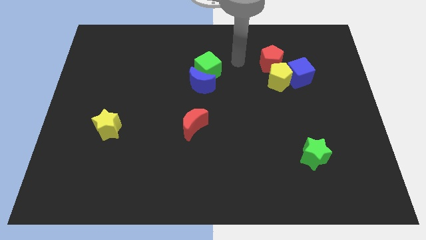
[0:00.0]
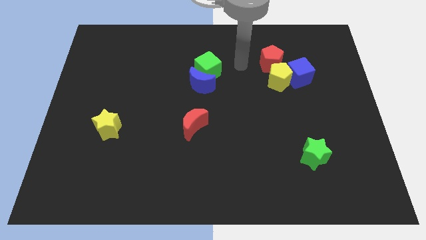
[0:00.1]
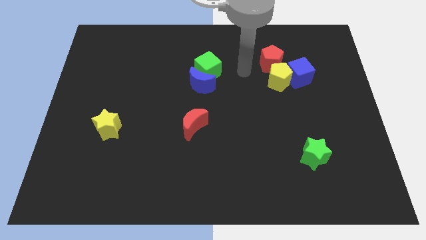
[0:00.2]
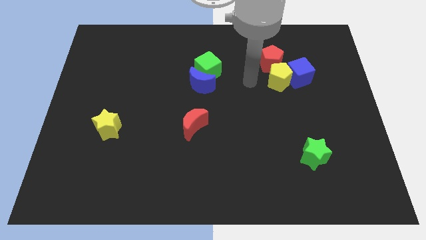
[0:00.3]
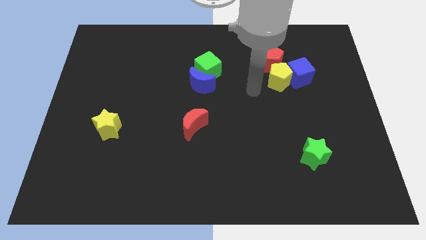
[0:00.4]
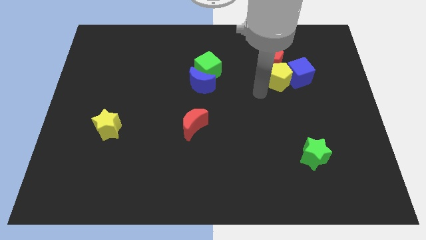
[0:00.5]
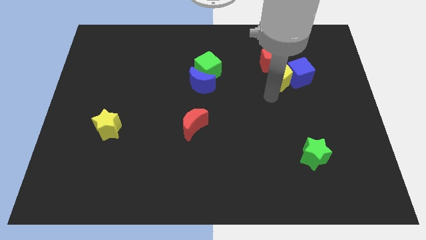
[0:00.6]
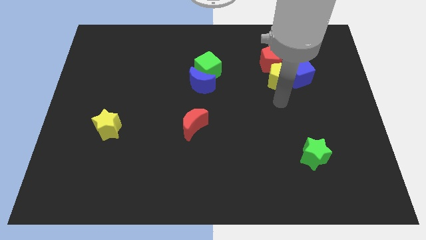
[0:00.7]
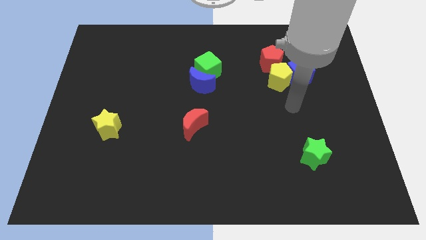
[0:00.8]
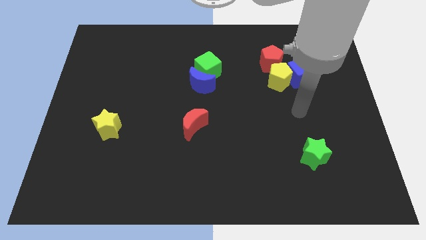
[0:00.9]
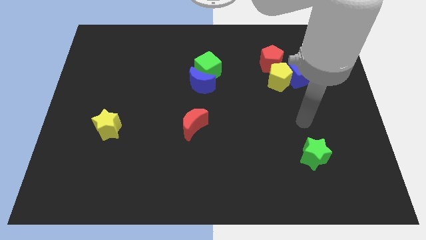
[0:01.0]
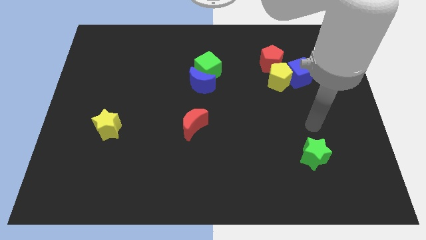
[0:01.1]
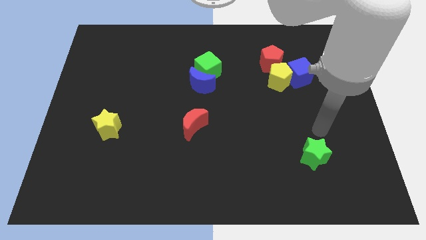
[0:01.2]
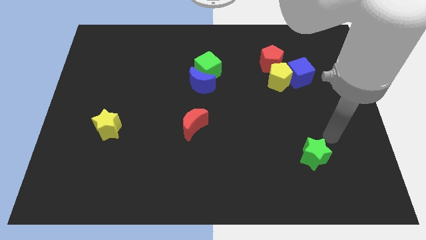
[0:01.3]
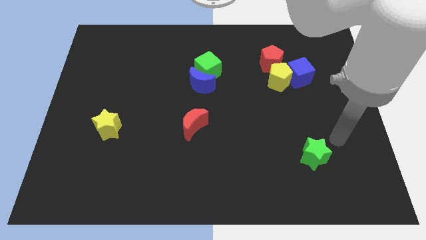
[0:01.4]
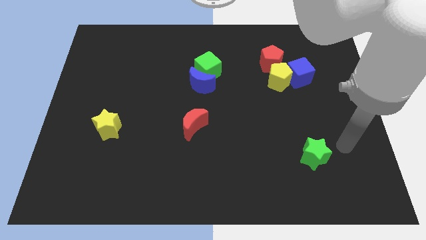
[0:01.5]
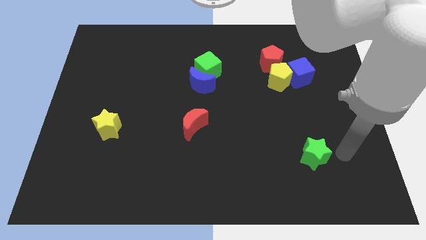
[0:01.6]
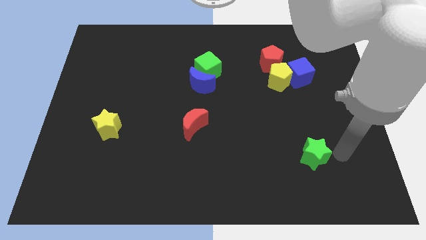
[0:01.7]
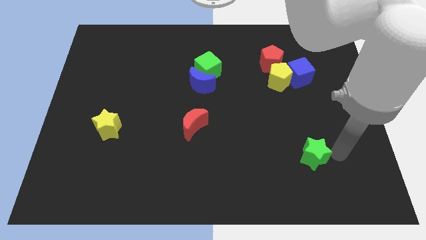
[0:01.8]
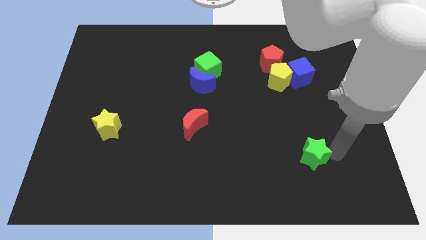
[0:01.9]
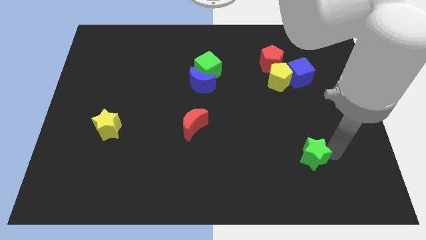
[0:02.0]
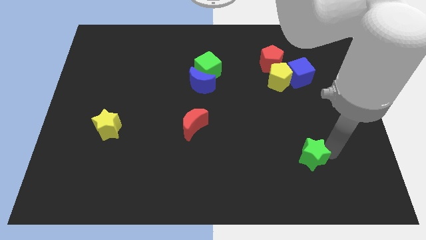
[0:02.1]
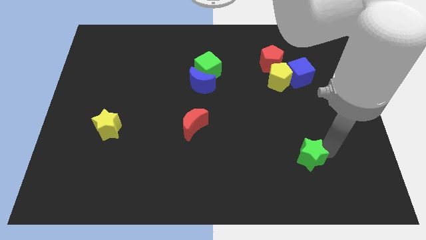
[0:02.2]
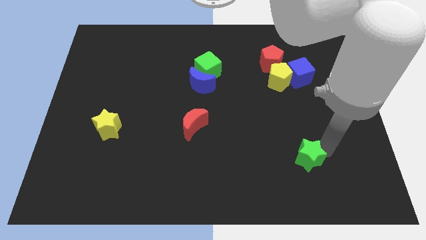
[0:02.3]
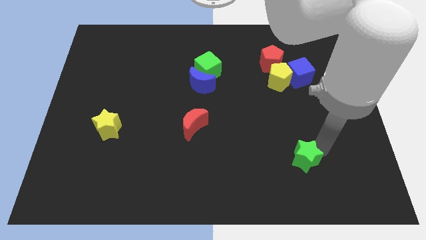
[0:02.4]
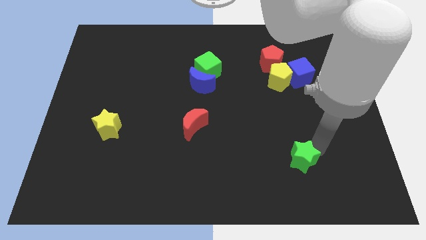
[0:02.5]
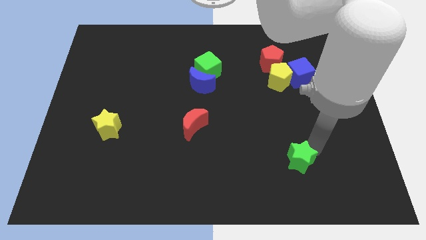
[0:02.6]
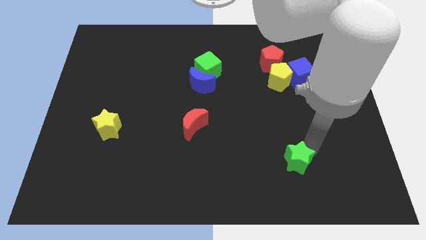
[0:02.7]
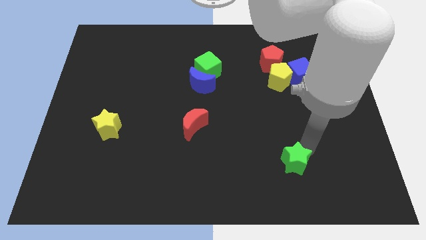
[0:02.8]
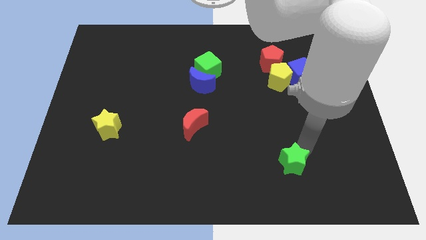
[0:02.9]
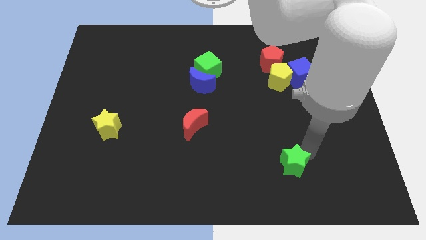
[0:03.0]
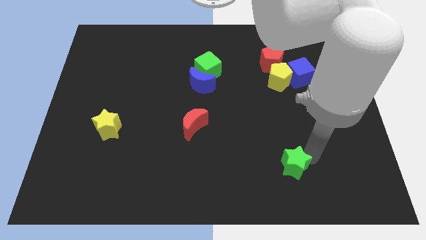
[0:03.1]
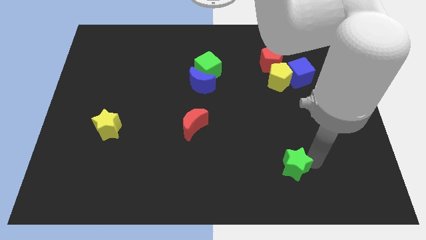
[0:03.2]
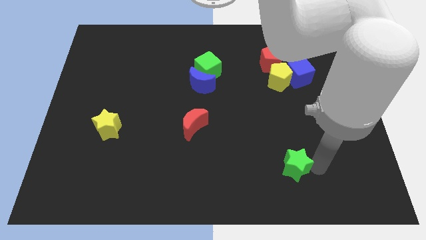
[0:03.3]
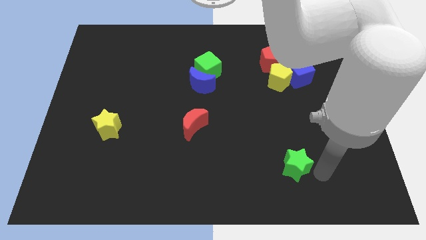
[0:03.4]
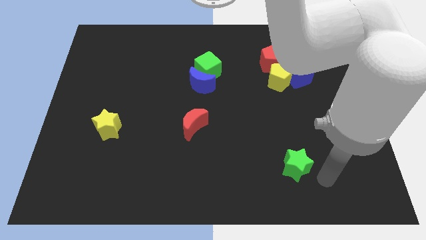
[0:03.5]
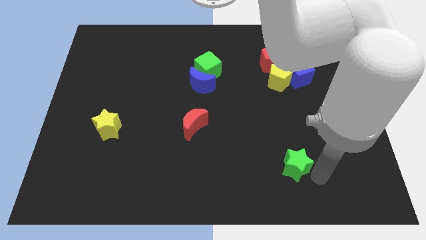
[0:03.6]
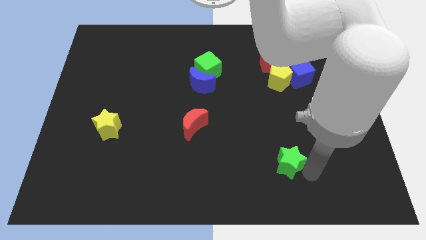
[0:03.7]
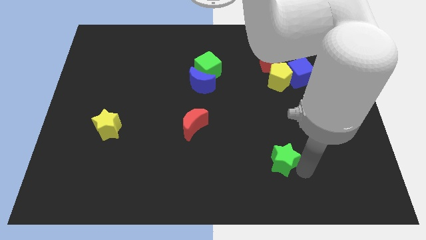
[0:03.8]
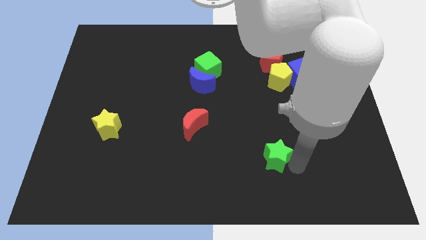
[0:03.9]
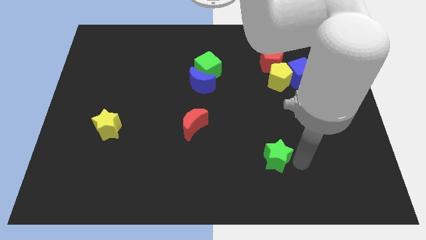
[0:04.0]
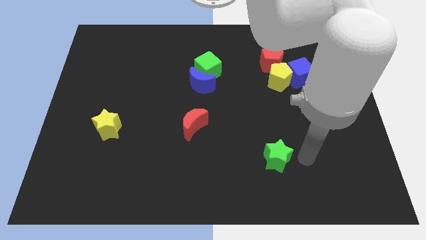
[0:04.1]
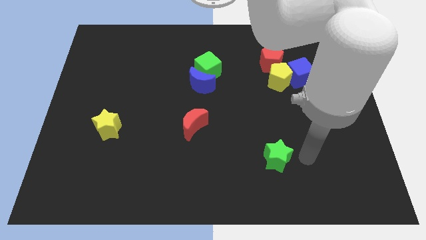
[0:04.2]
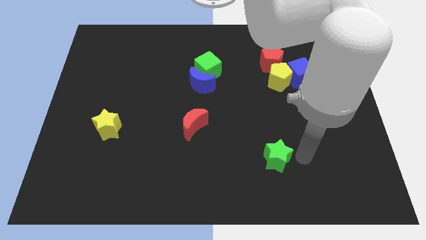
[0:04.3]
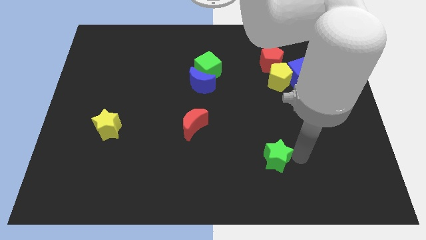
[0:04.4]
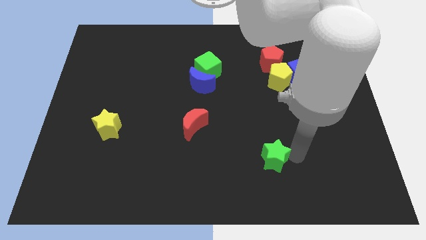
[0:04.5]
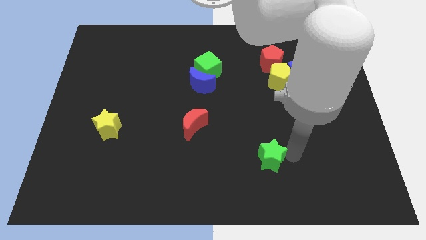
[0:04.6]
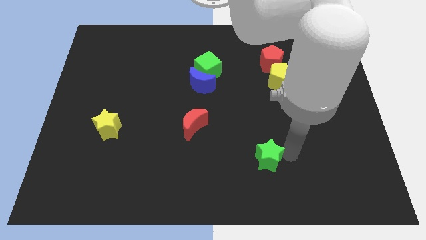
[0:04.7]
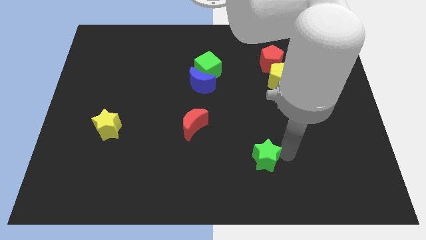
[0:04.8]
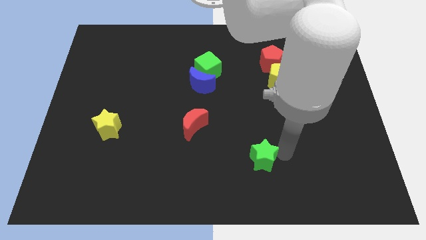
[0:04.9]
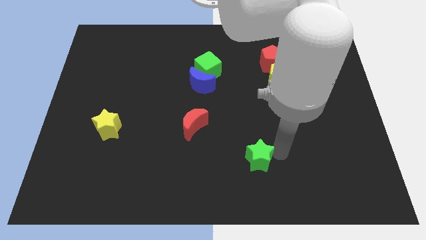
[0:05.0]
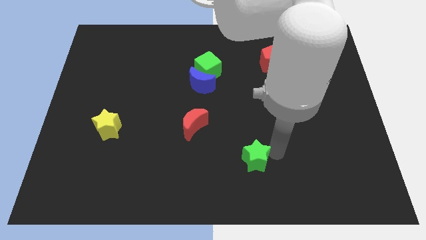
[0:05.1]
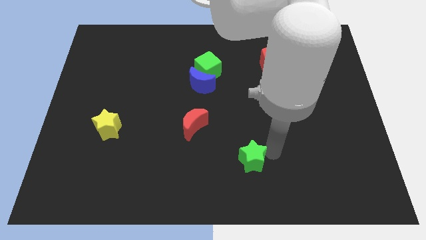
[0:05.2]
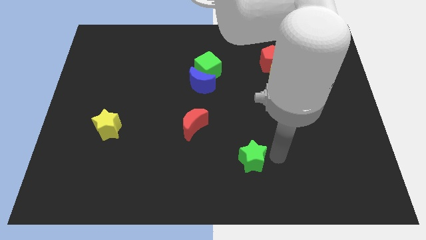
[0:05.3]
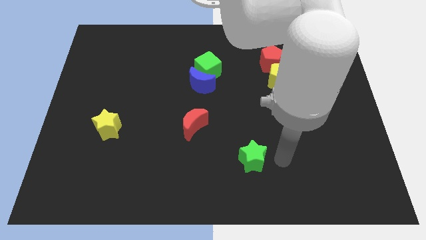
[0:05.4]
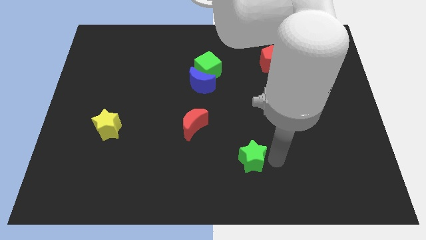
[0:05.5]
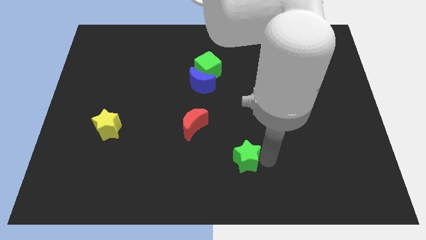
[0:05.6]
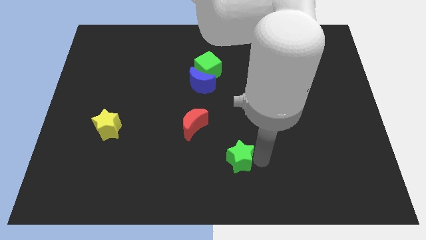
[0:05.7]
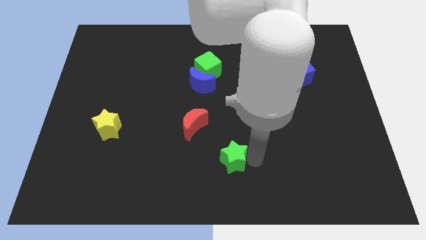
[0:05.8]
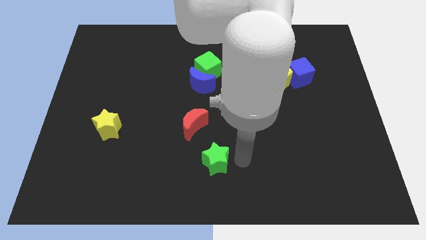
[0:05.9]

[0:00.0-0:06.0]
move the green star to the left

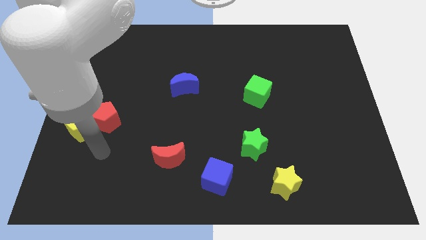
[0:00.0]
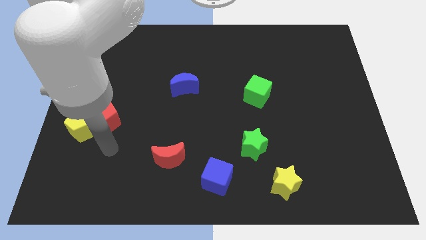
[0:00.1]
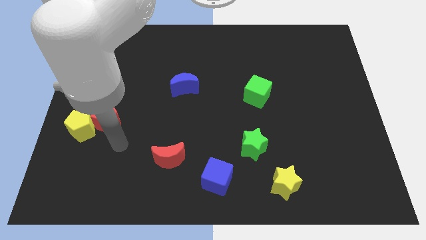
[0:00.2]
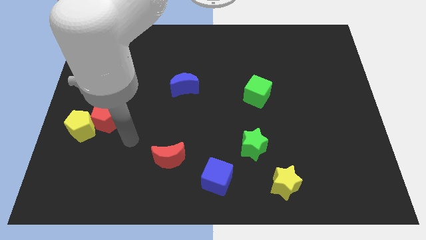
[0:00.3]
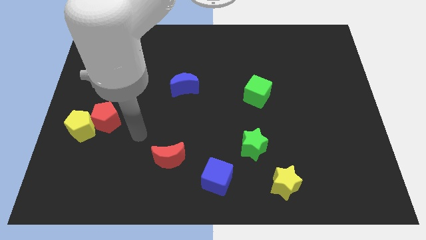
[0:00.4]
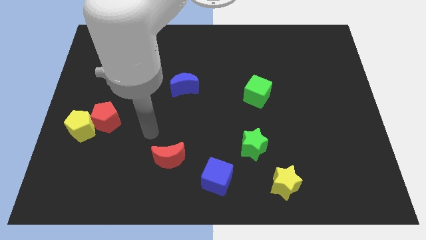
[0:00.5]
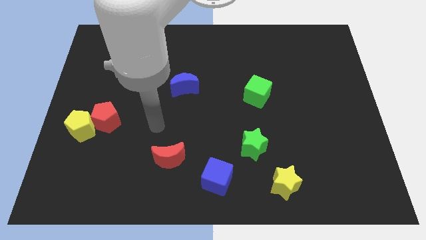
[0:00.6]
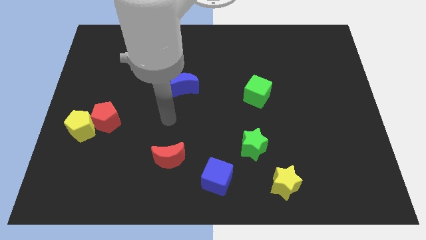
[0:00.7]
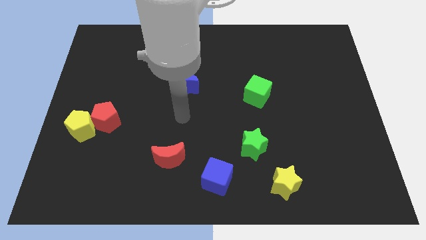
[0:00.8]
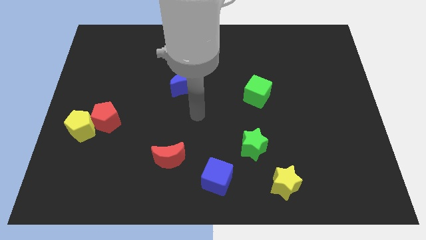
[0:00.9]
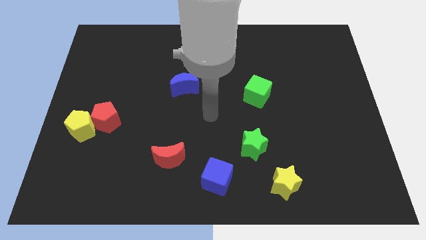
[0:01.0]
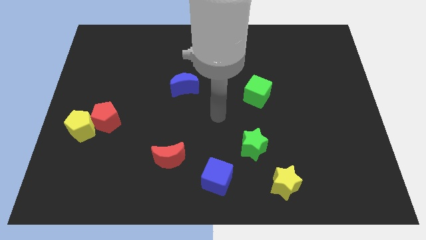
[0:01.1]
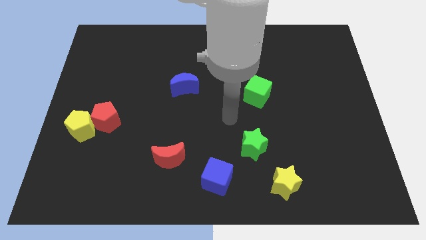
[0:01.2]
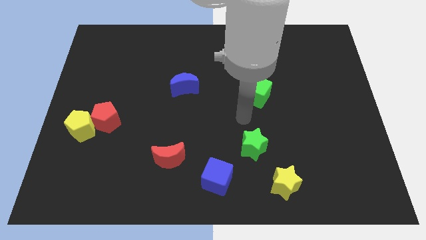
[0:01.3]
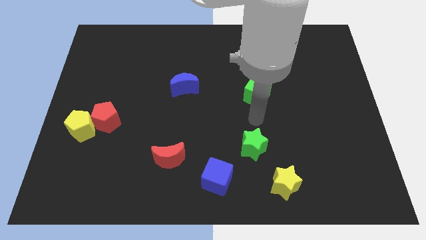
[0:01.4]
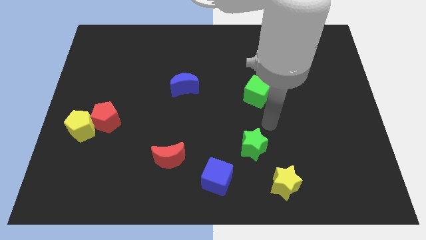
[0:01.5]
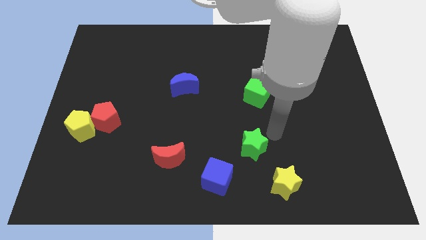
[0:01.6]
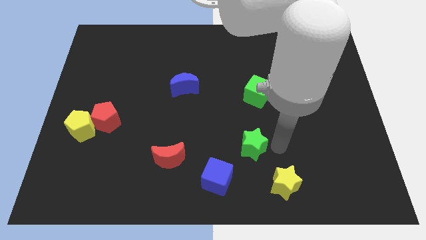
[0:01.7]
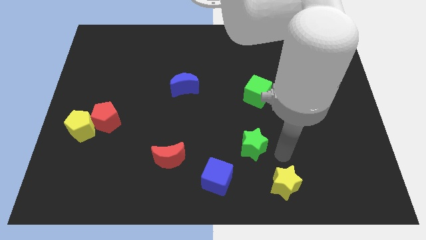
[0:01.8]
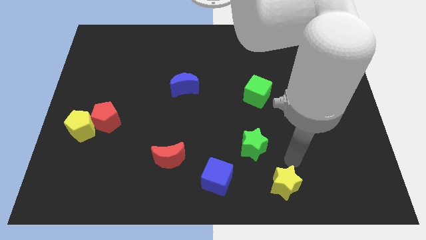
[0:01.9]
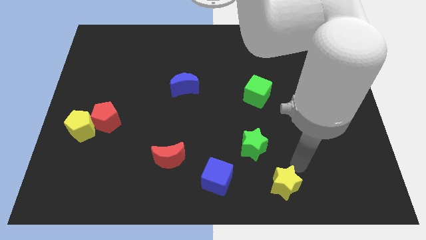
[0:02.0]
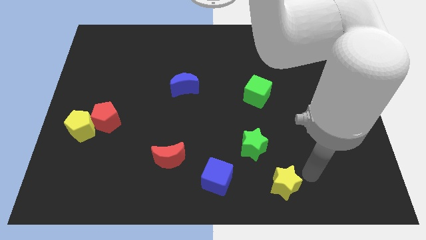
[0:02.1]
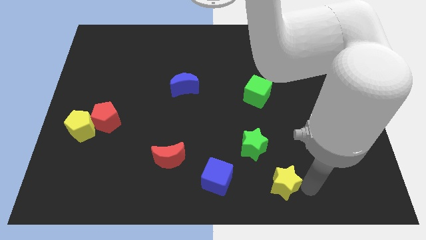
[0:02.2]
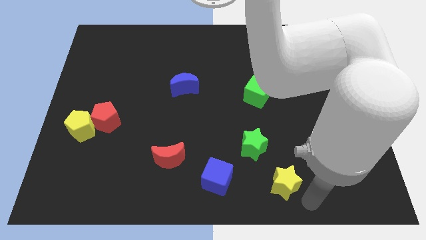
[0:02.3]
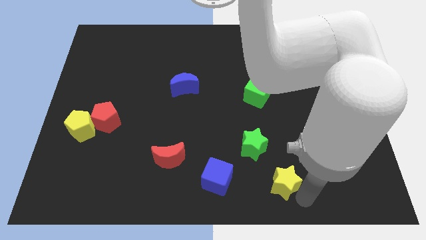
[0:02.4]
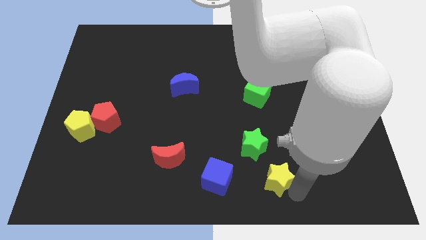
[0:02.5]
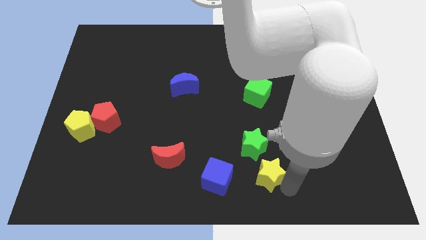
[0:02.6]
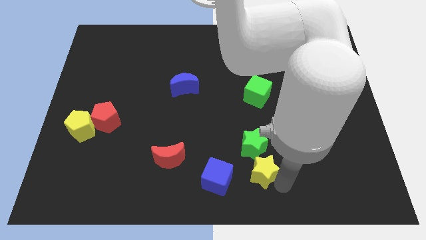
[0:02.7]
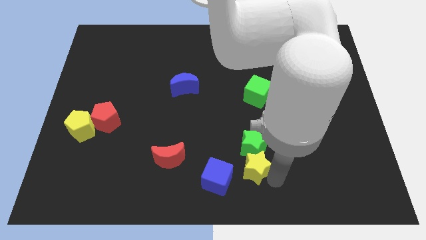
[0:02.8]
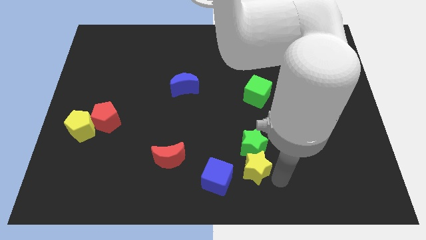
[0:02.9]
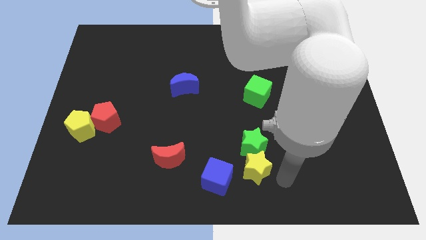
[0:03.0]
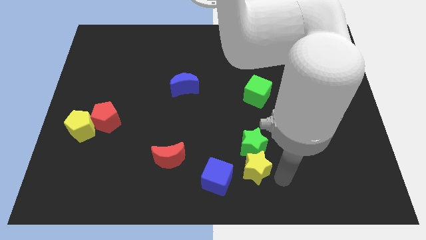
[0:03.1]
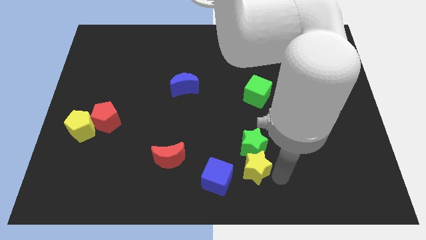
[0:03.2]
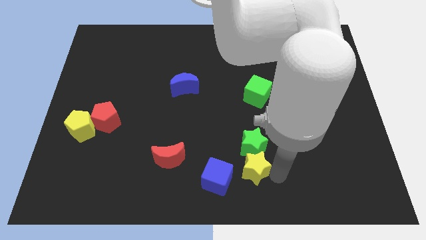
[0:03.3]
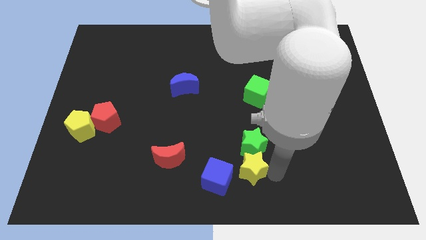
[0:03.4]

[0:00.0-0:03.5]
slide the yellow star diagonally up and to the left somewhat
